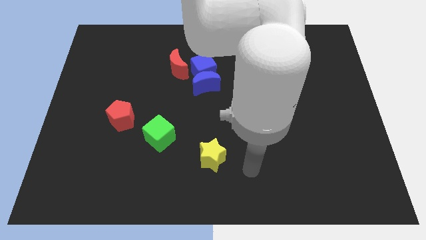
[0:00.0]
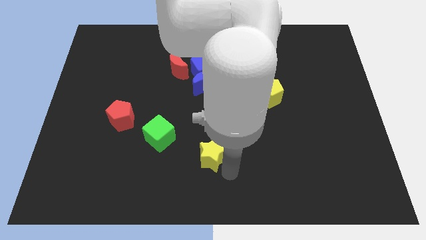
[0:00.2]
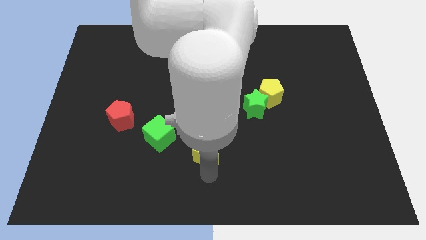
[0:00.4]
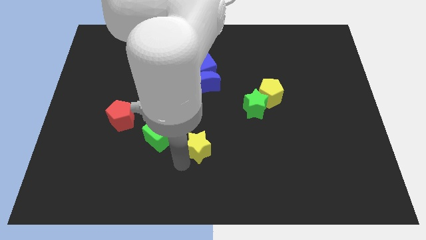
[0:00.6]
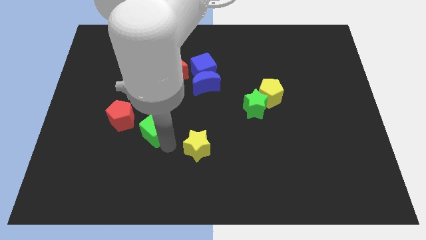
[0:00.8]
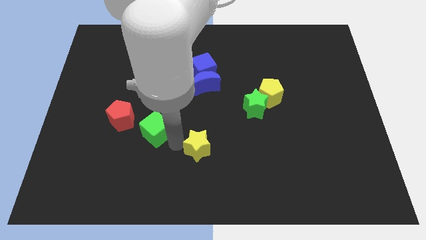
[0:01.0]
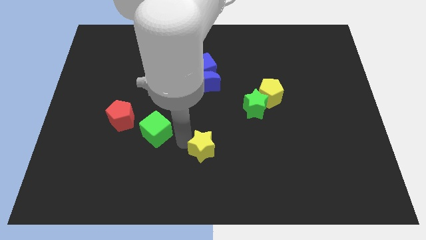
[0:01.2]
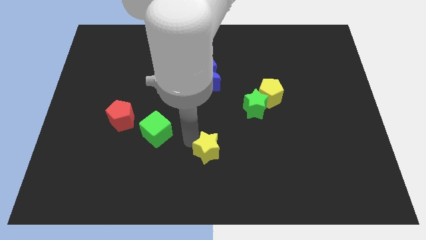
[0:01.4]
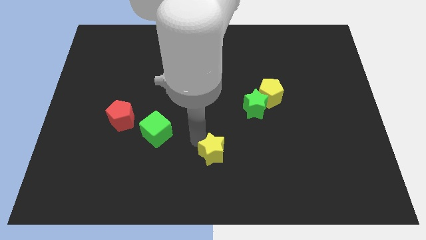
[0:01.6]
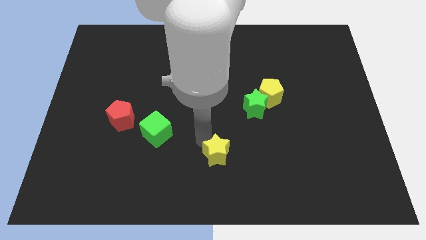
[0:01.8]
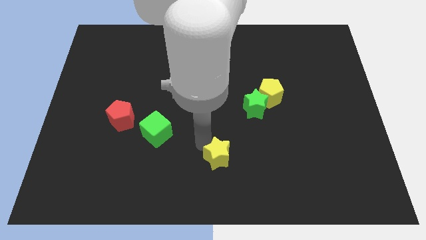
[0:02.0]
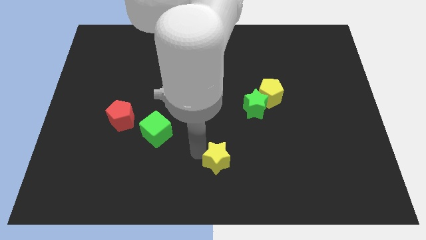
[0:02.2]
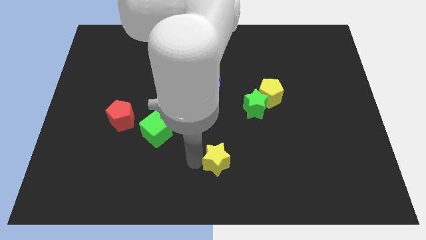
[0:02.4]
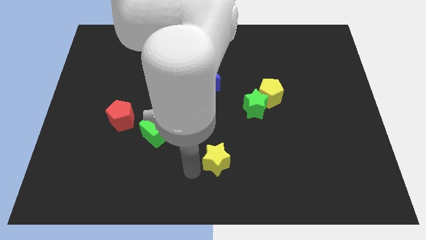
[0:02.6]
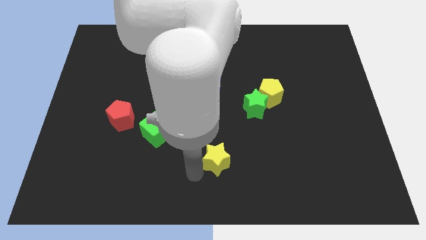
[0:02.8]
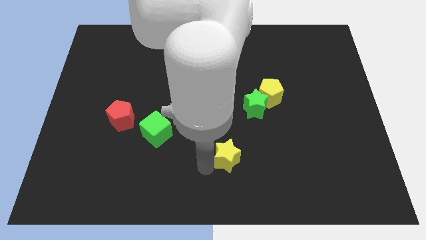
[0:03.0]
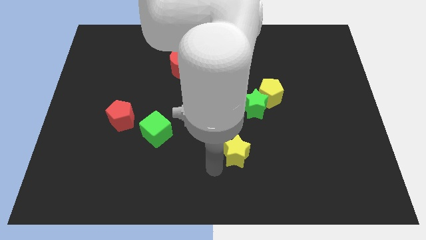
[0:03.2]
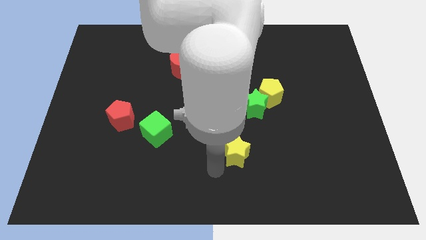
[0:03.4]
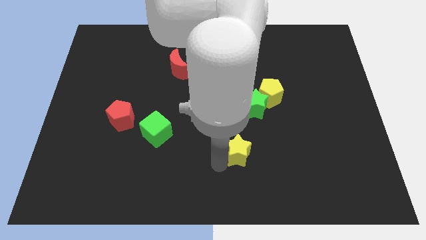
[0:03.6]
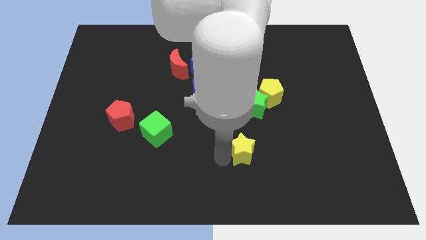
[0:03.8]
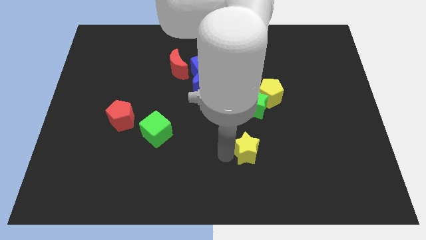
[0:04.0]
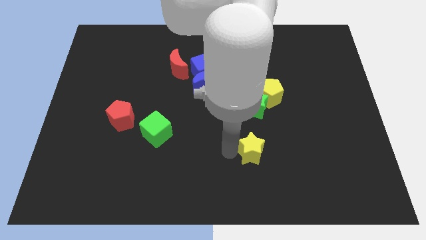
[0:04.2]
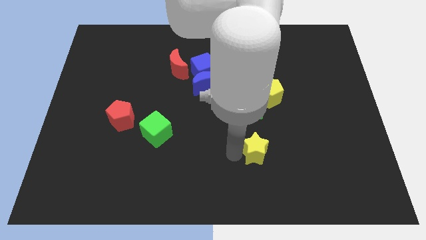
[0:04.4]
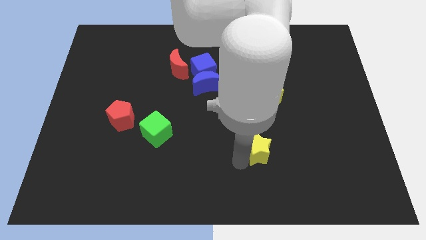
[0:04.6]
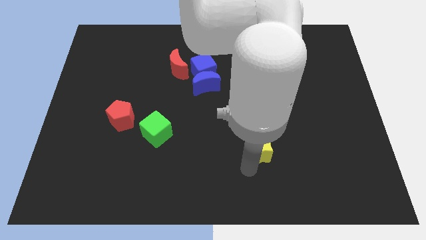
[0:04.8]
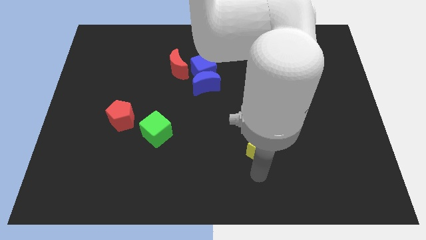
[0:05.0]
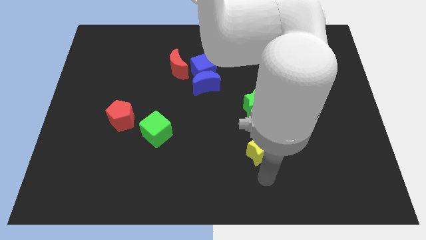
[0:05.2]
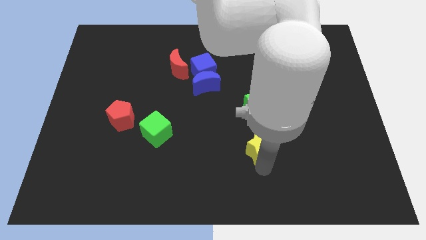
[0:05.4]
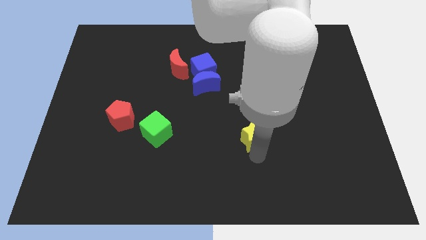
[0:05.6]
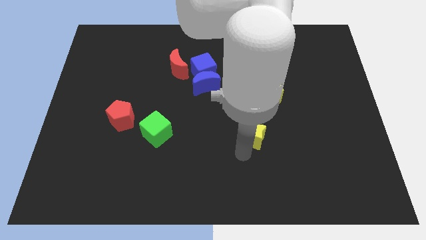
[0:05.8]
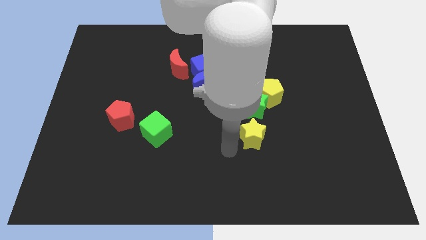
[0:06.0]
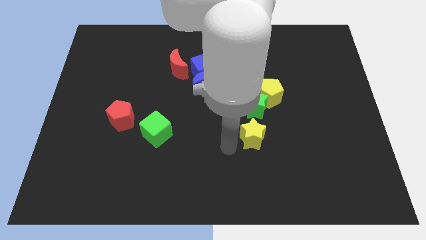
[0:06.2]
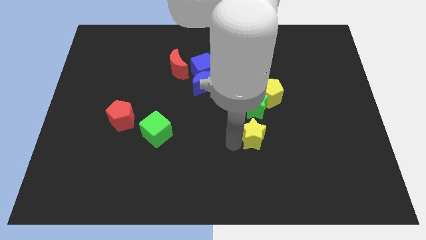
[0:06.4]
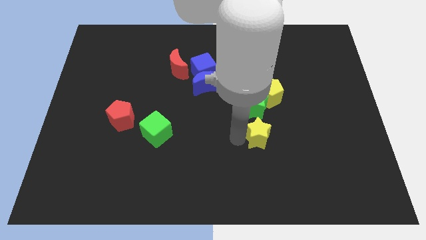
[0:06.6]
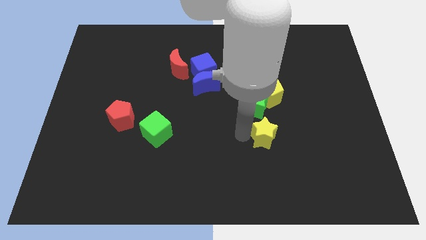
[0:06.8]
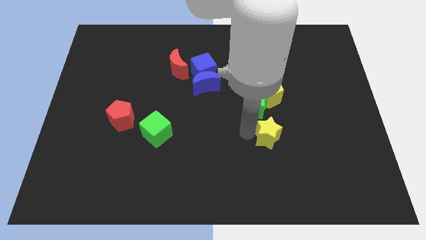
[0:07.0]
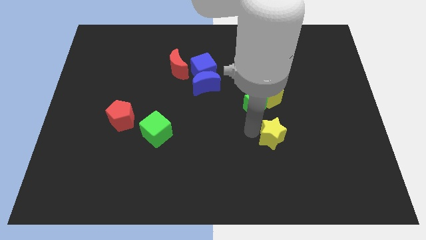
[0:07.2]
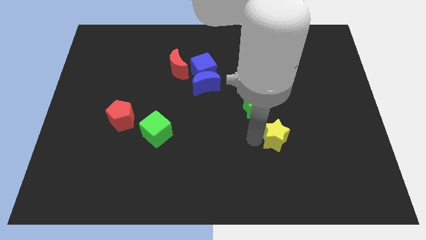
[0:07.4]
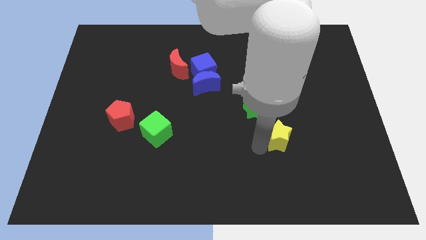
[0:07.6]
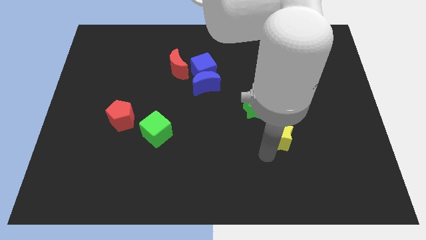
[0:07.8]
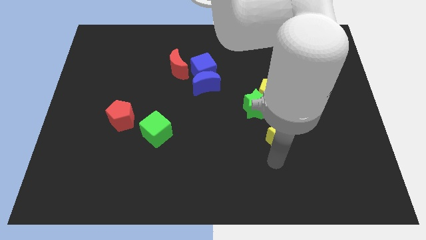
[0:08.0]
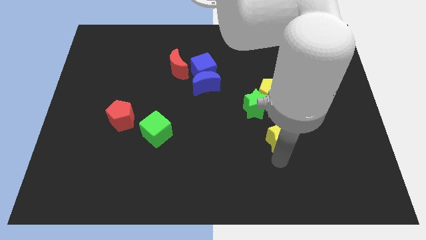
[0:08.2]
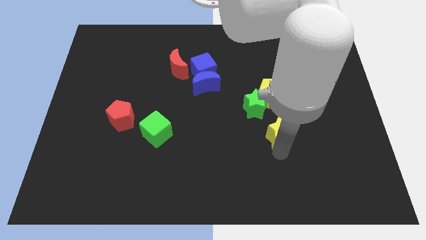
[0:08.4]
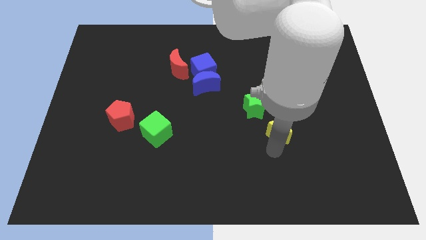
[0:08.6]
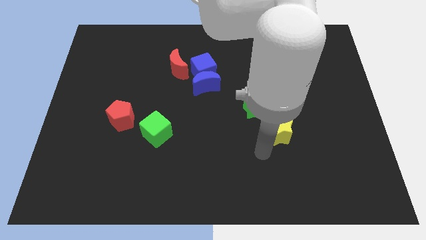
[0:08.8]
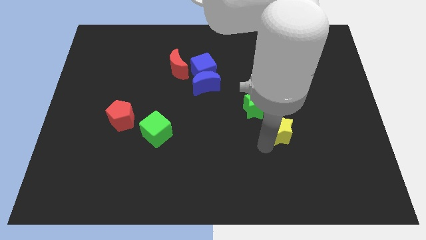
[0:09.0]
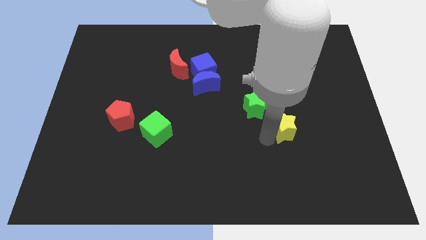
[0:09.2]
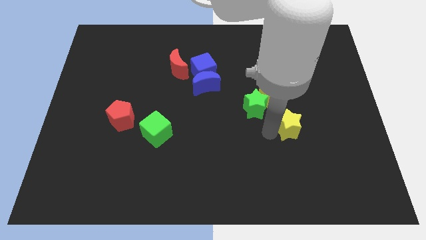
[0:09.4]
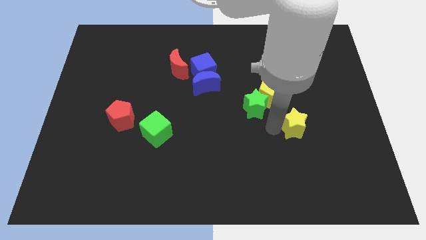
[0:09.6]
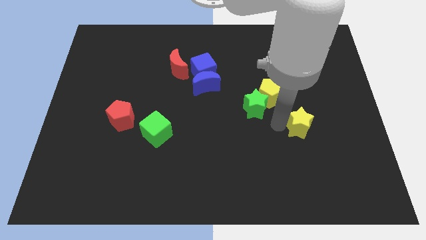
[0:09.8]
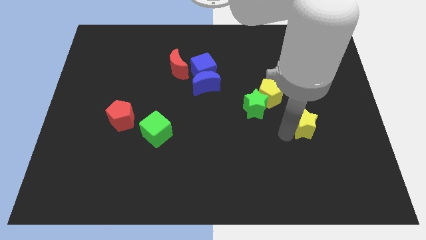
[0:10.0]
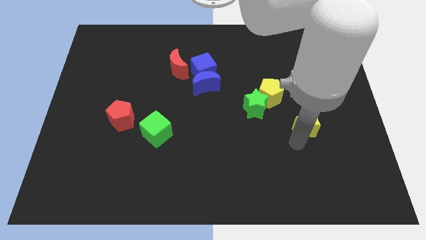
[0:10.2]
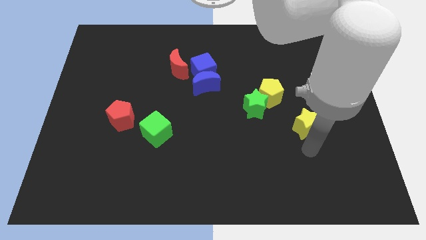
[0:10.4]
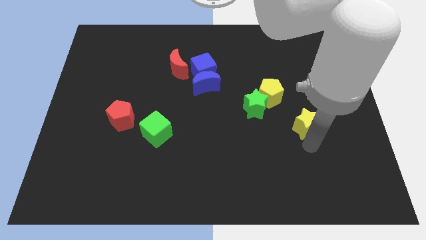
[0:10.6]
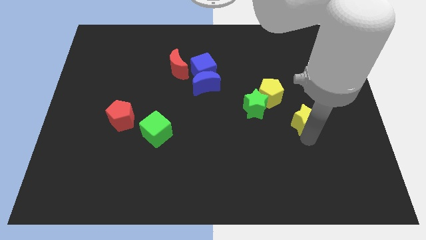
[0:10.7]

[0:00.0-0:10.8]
slide the yellow star to the right of the green star

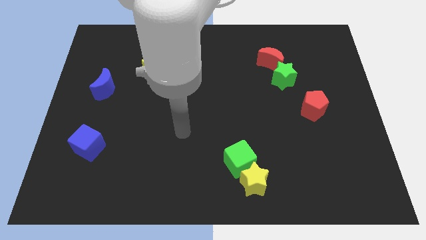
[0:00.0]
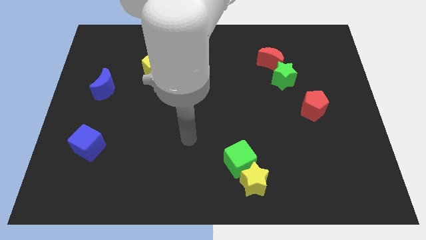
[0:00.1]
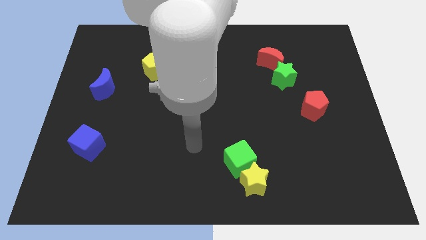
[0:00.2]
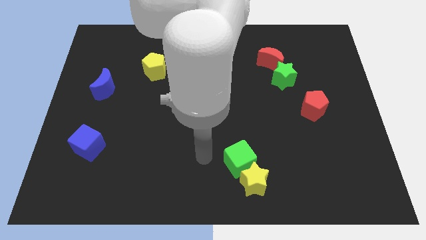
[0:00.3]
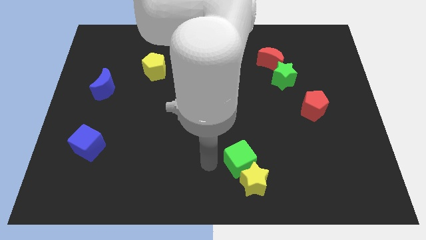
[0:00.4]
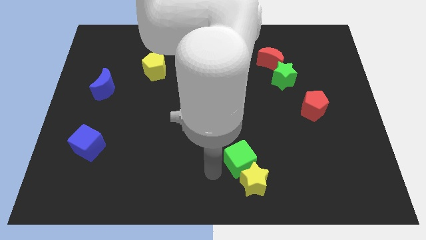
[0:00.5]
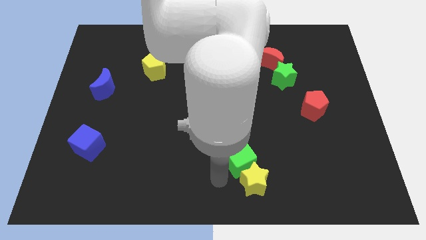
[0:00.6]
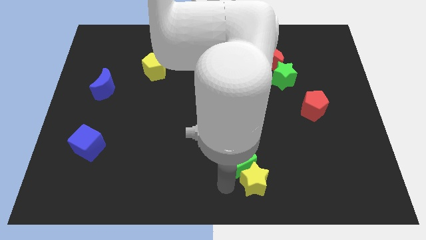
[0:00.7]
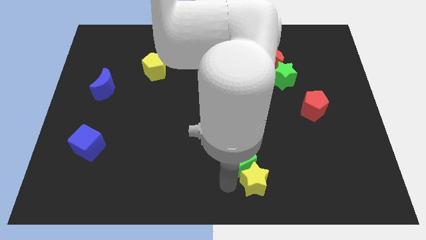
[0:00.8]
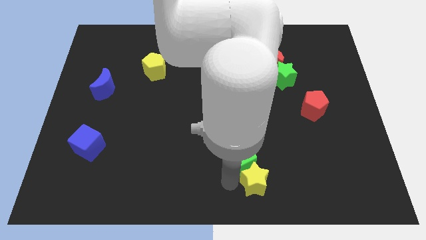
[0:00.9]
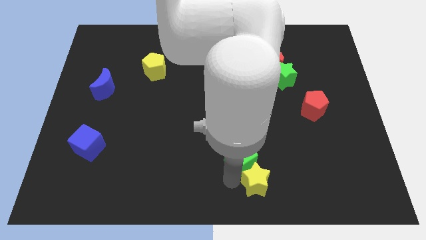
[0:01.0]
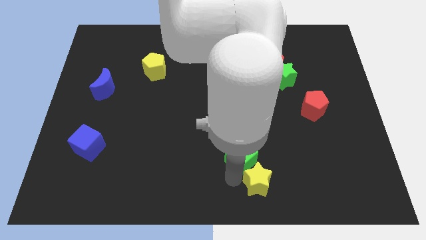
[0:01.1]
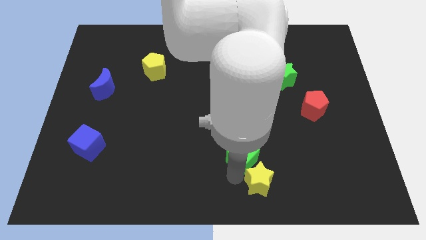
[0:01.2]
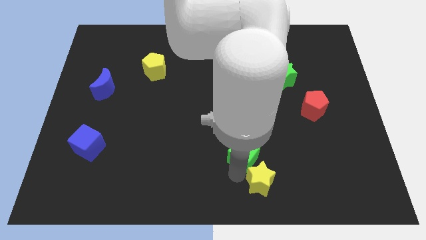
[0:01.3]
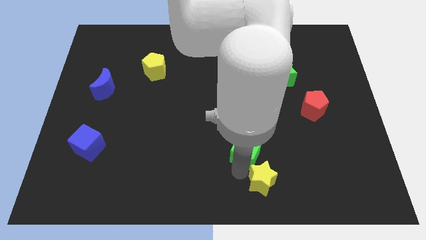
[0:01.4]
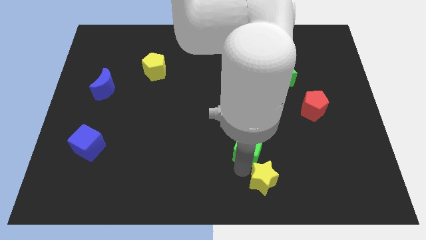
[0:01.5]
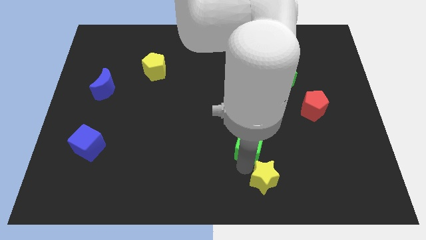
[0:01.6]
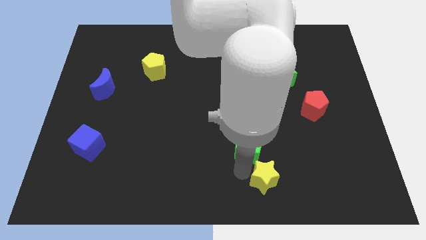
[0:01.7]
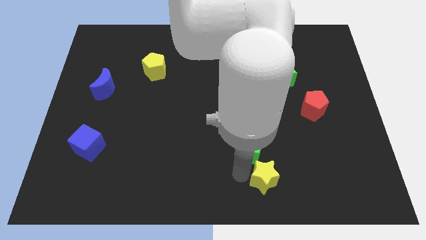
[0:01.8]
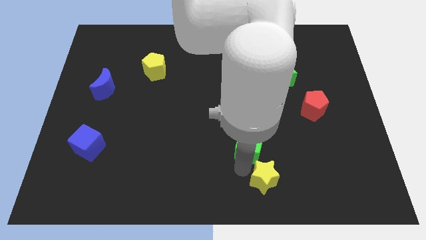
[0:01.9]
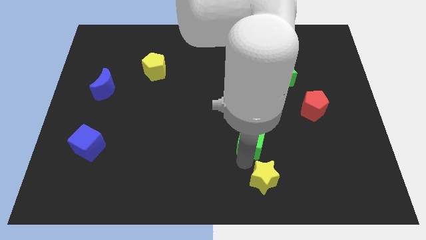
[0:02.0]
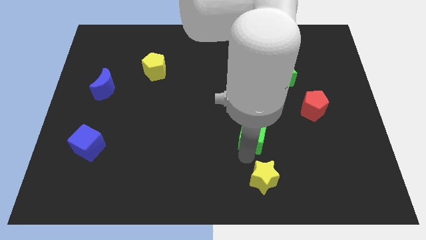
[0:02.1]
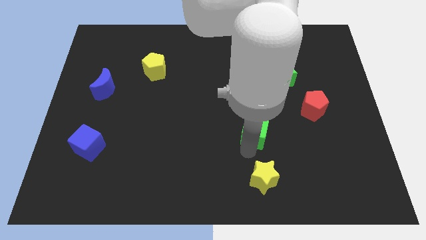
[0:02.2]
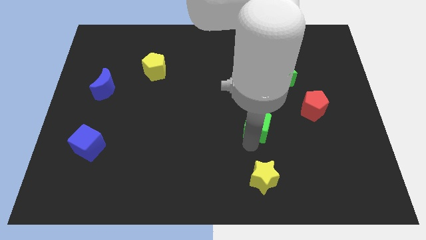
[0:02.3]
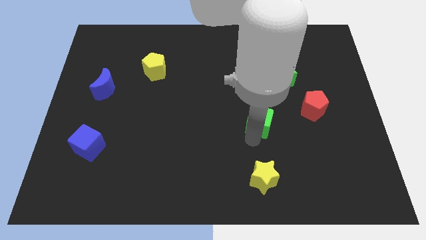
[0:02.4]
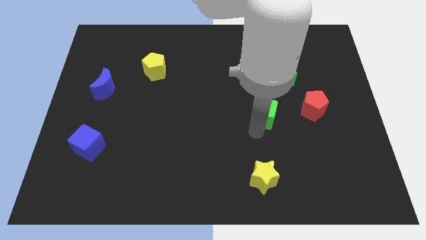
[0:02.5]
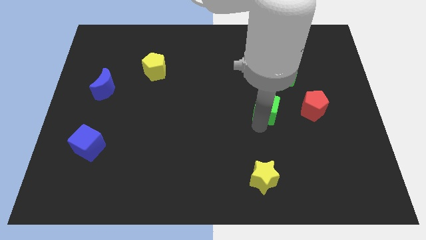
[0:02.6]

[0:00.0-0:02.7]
slide the green cube to the bottom left of the green star
